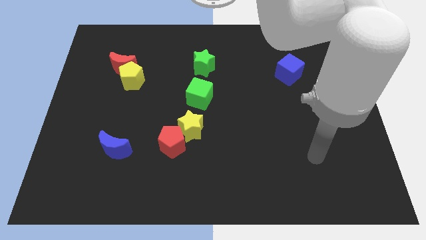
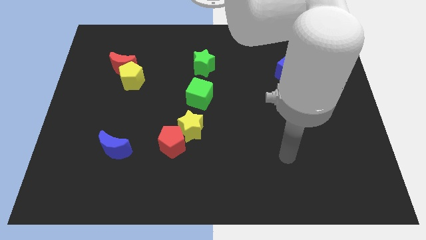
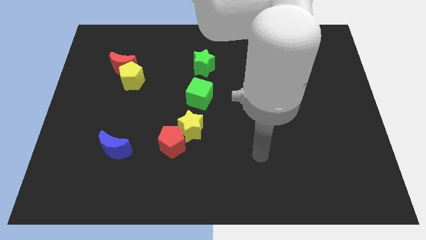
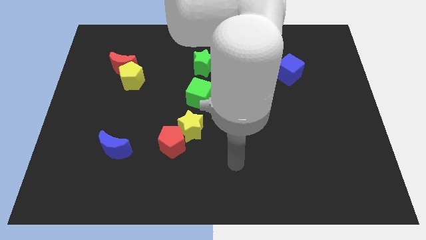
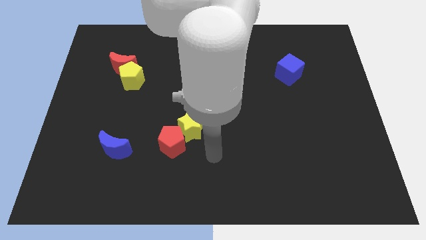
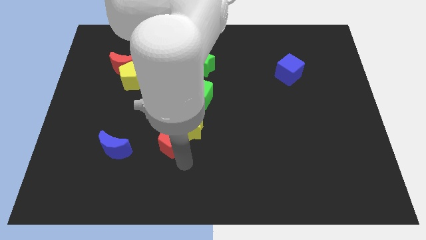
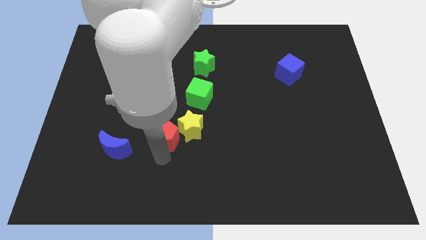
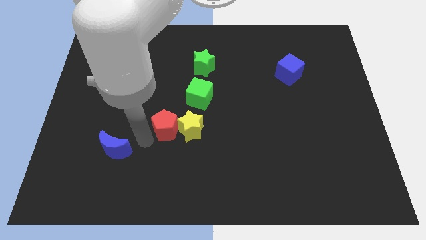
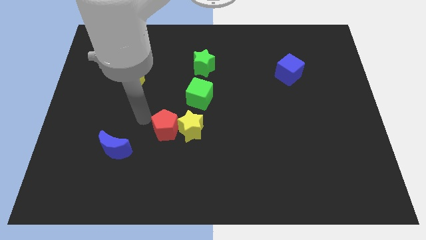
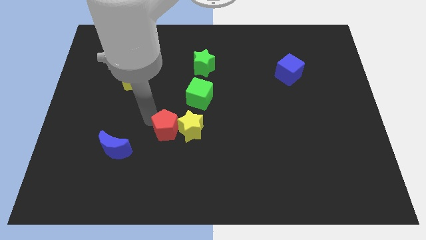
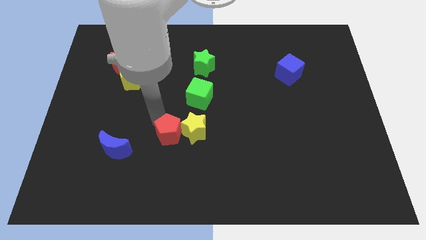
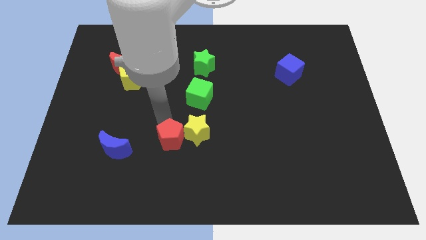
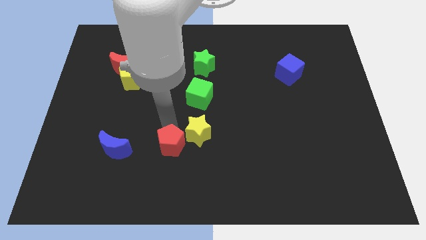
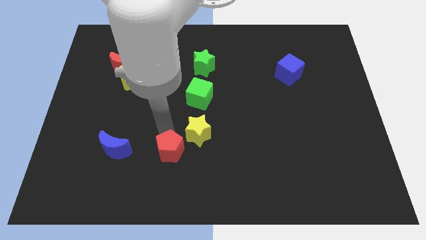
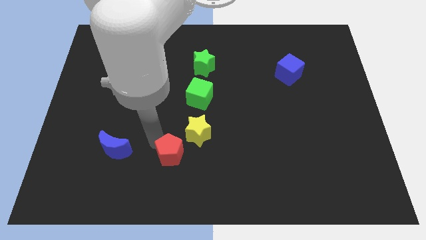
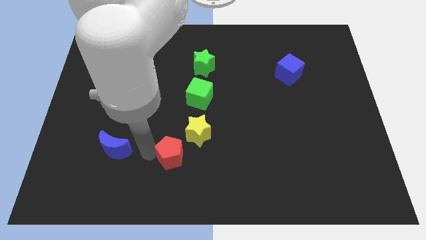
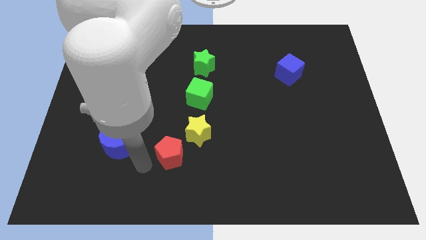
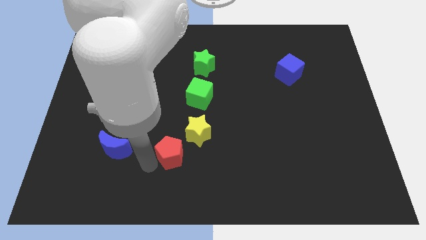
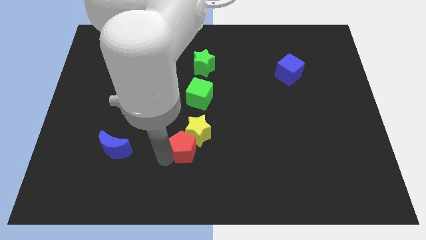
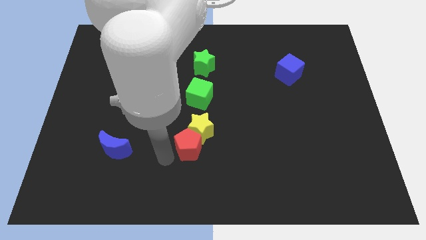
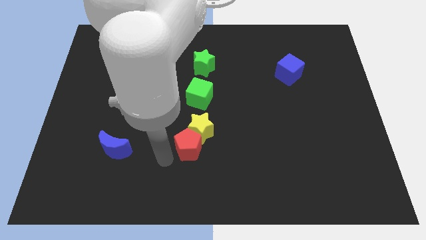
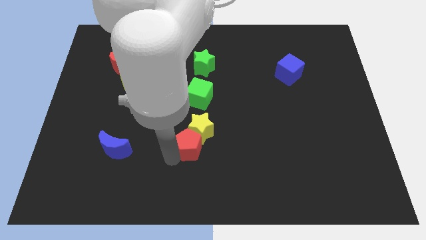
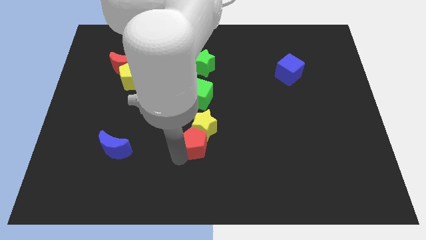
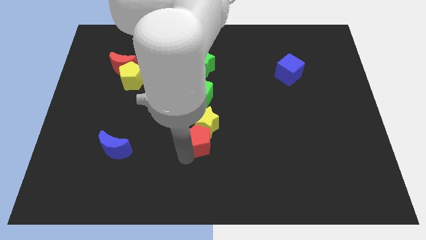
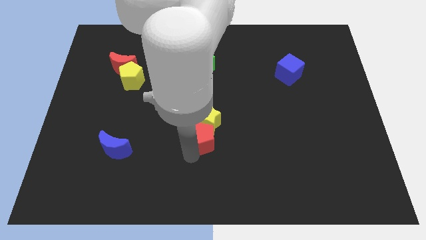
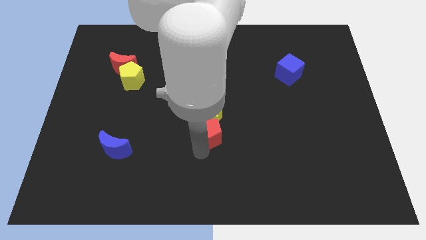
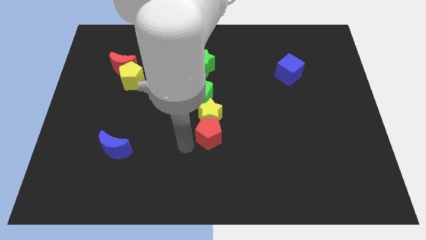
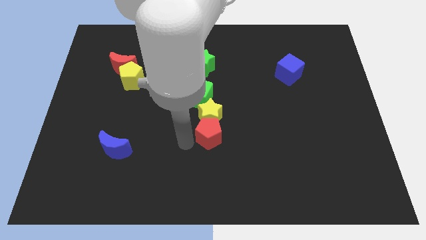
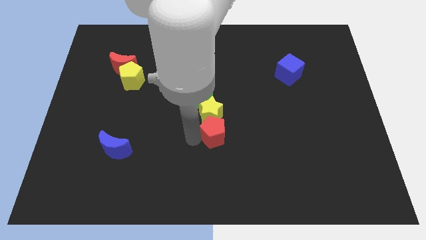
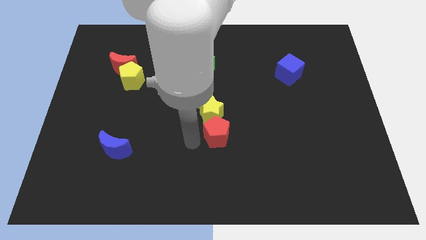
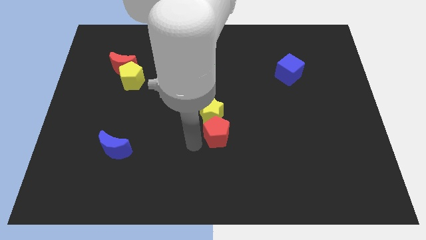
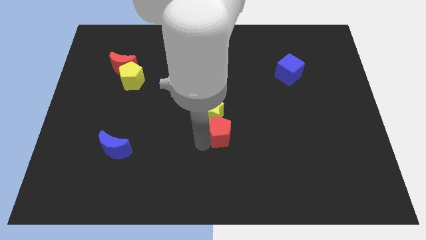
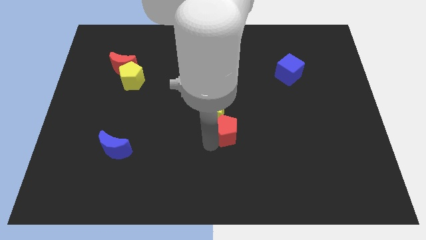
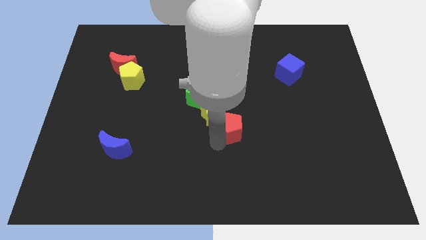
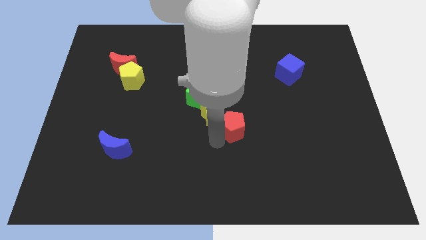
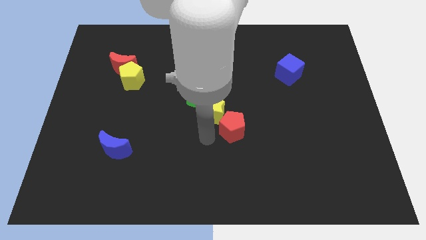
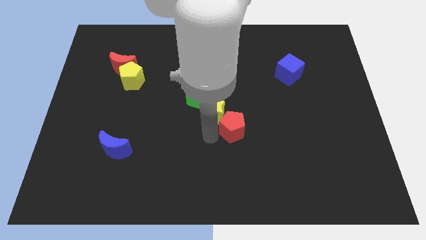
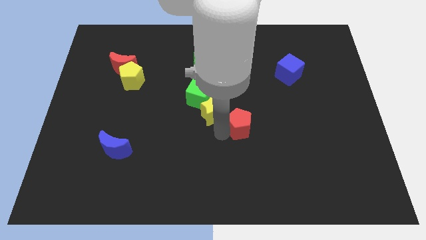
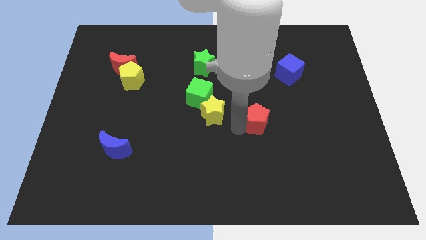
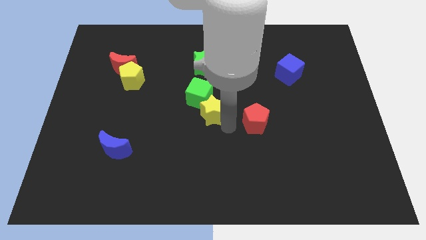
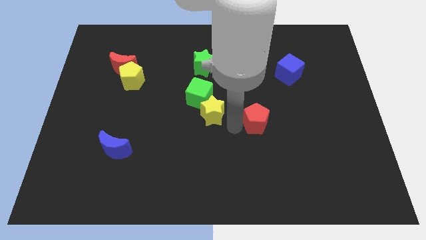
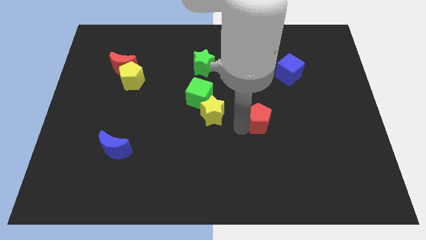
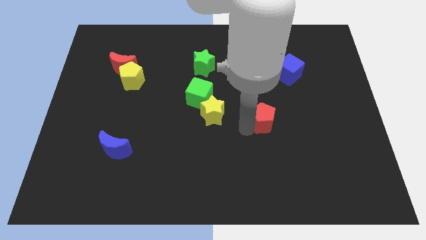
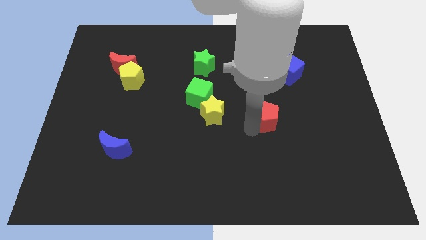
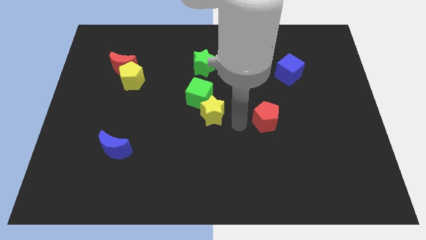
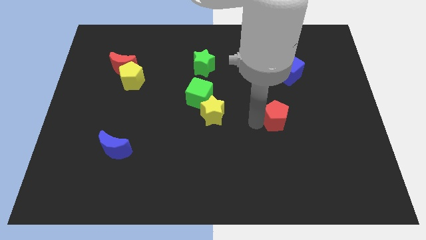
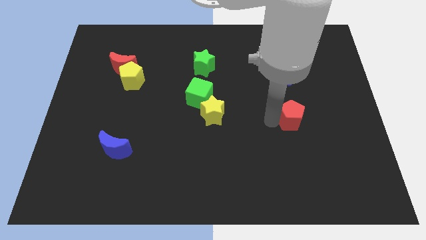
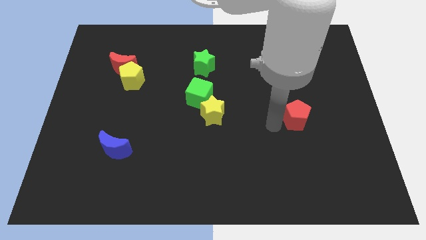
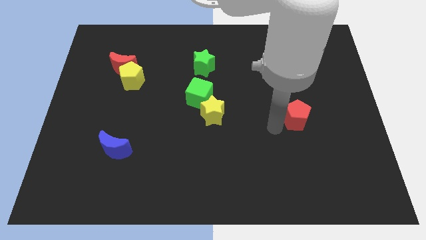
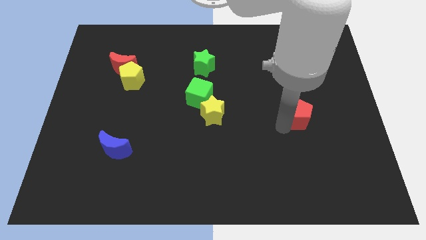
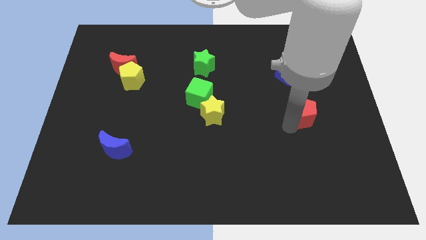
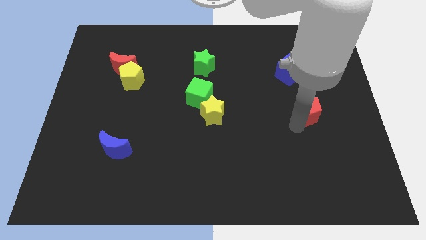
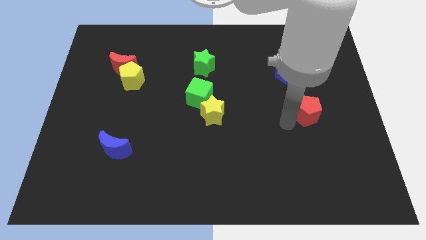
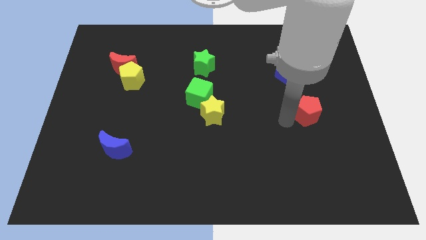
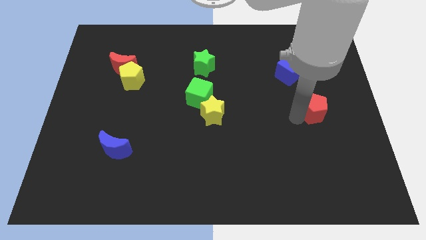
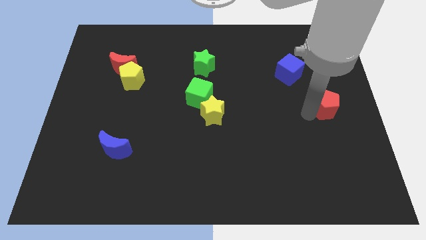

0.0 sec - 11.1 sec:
move the red pentagon to the right side

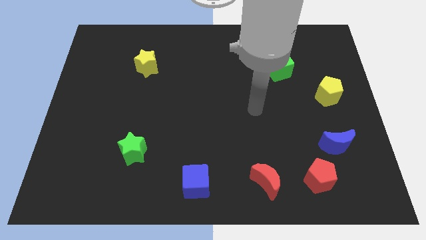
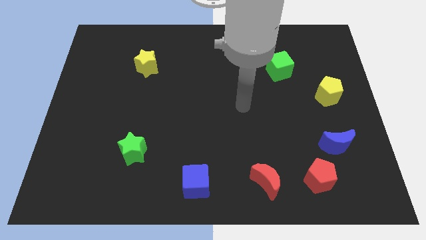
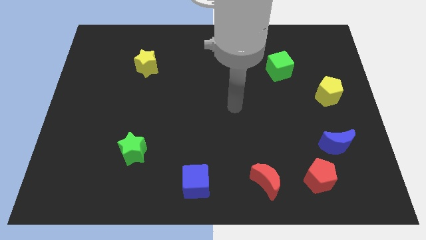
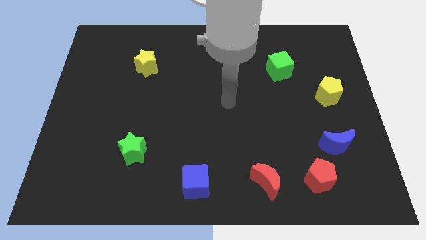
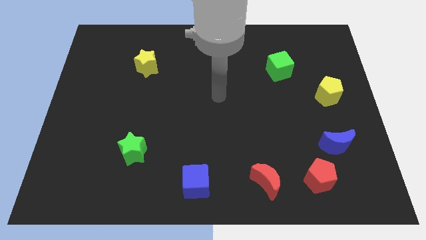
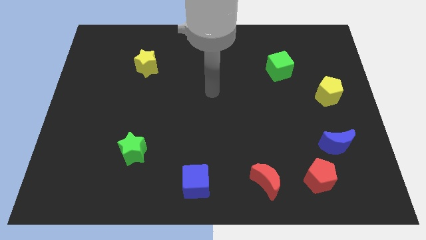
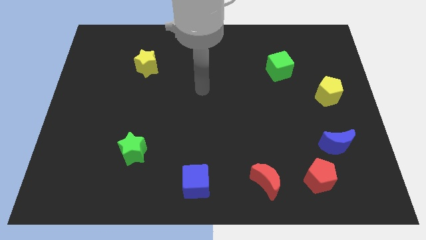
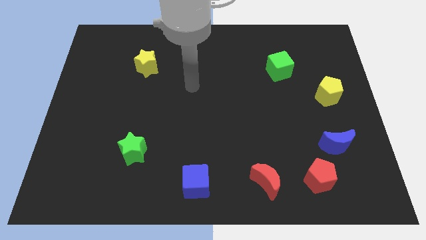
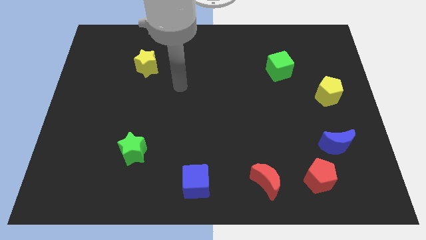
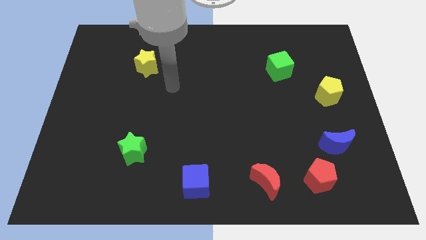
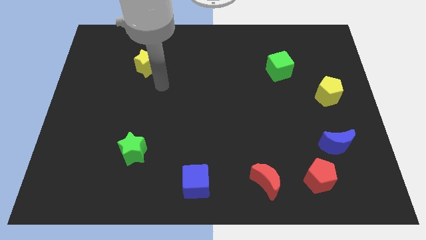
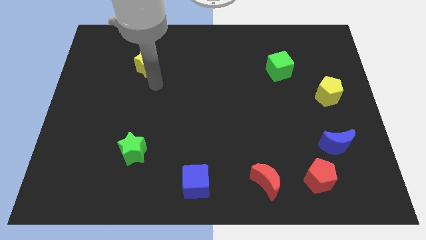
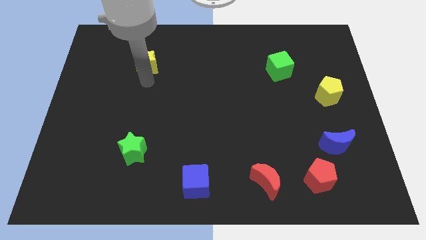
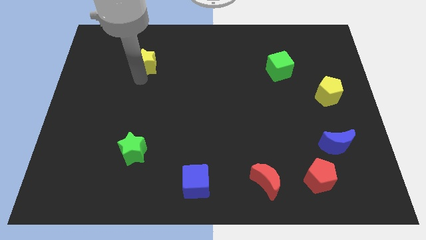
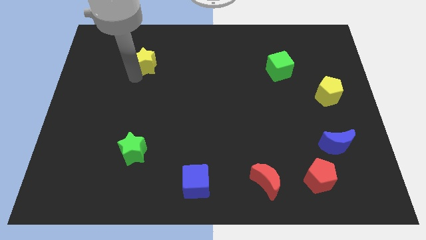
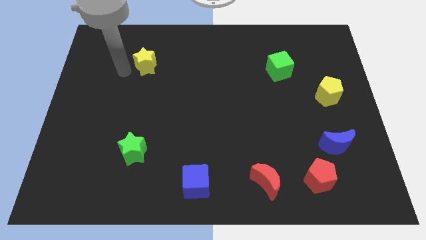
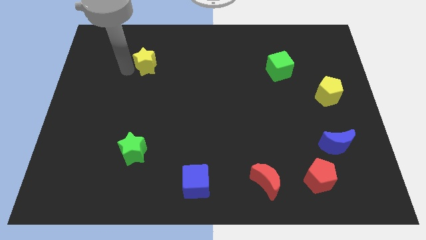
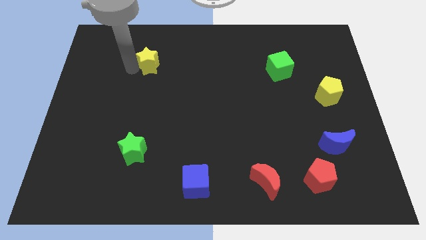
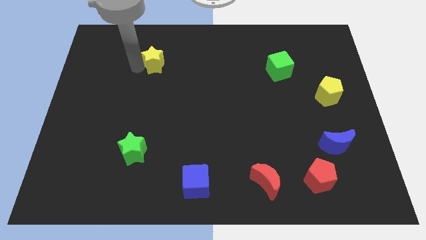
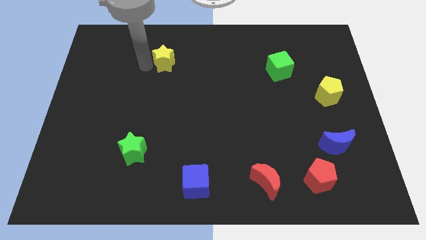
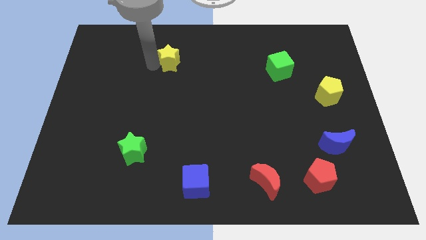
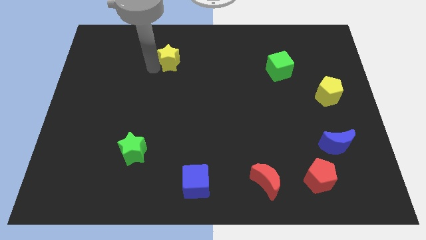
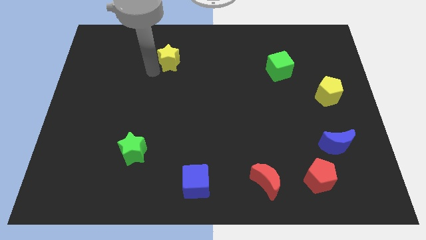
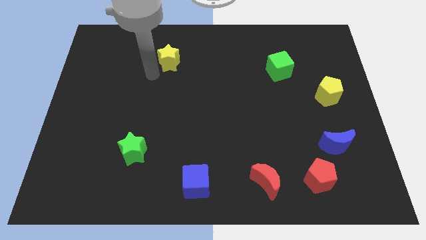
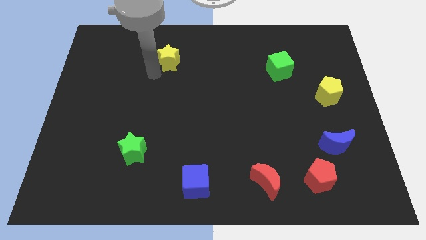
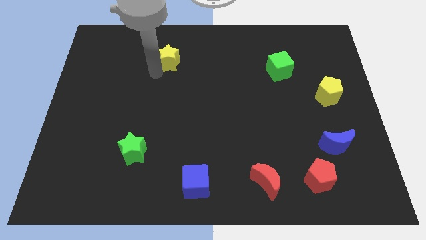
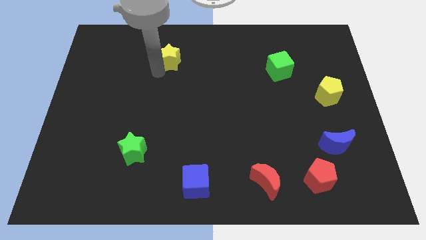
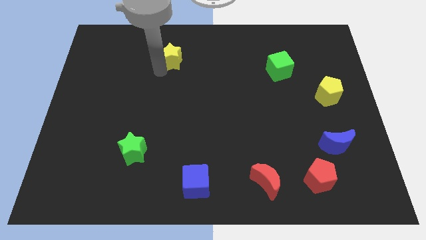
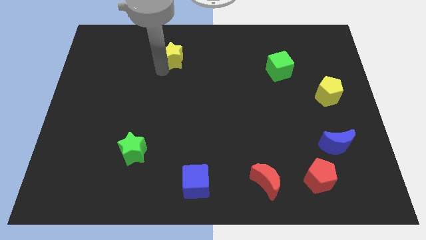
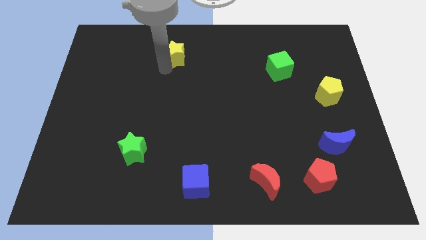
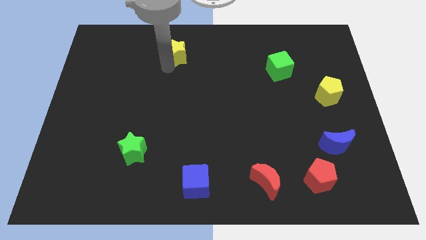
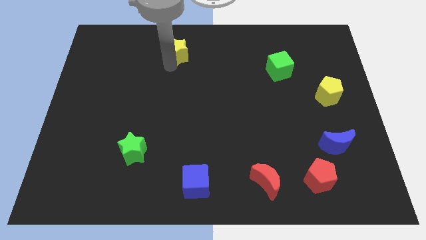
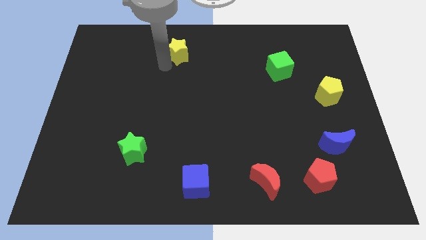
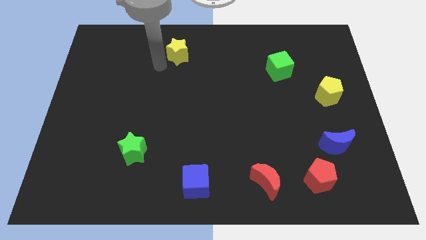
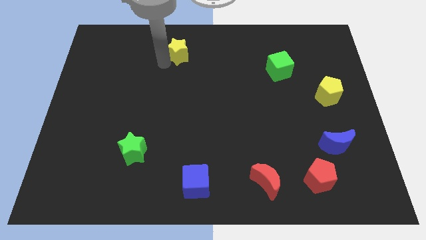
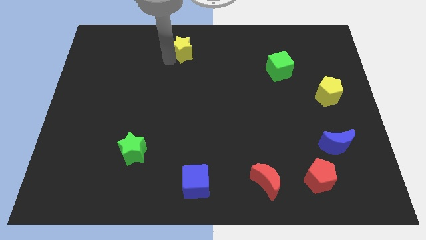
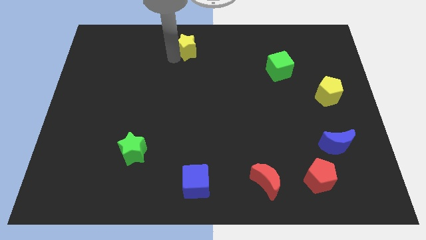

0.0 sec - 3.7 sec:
slide the yellow star to the top side
